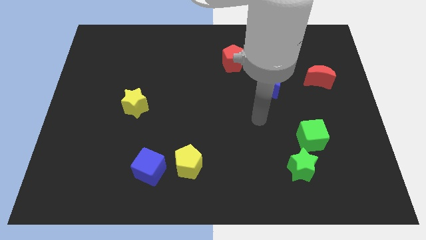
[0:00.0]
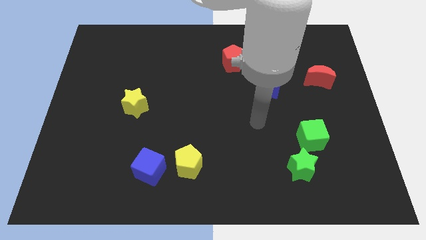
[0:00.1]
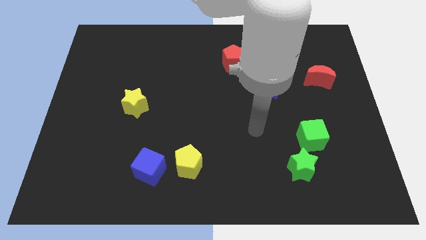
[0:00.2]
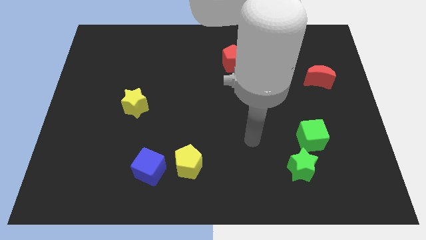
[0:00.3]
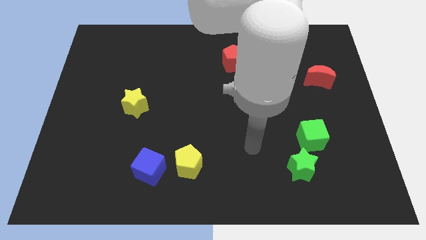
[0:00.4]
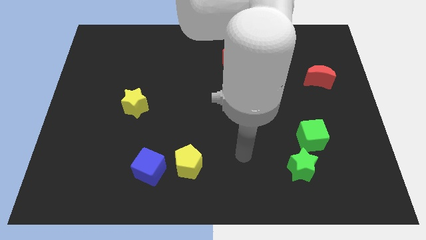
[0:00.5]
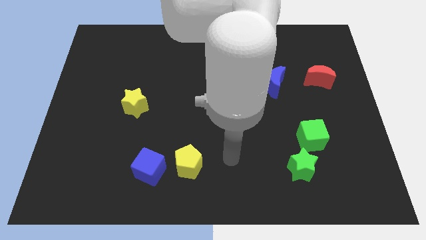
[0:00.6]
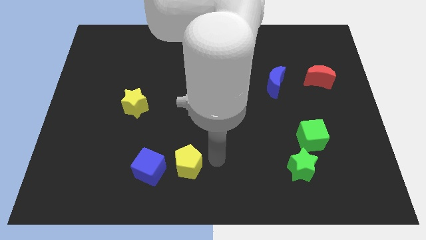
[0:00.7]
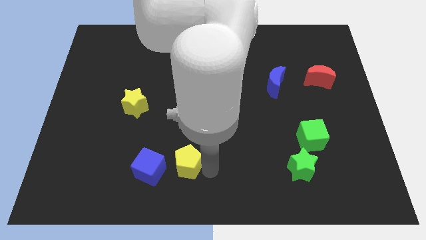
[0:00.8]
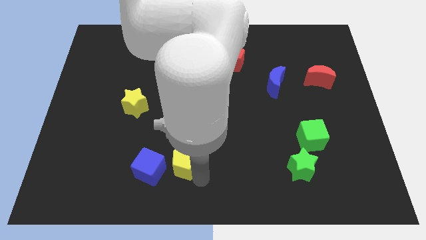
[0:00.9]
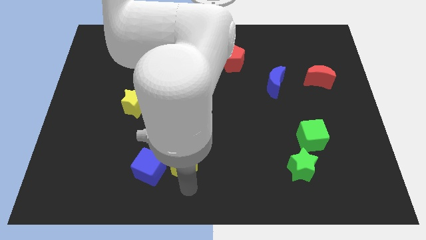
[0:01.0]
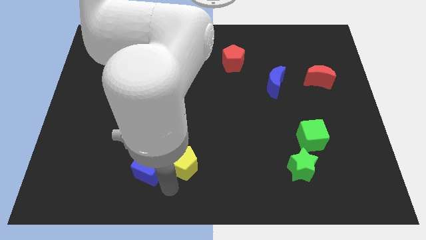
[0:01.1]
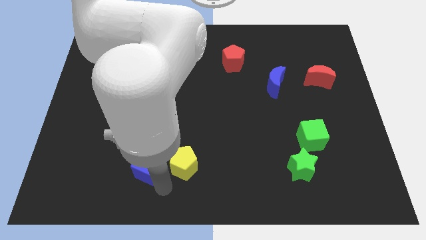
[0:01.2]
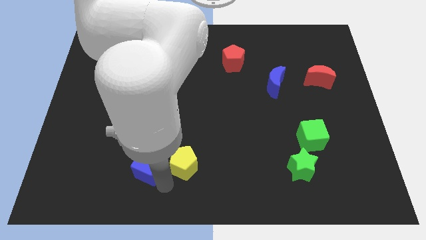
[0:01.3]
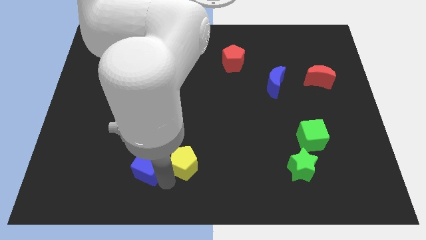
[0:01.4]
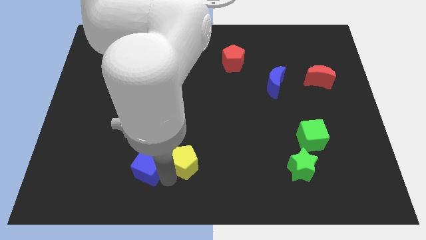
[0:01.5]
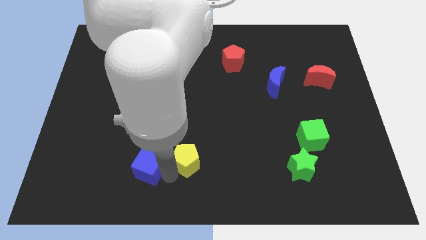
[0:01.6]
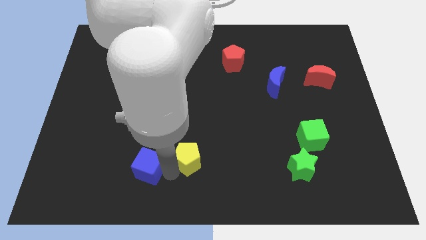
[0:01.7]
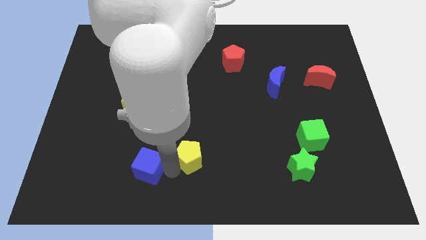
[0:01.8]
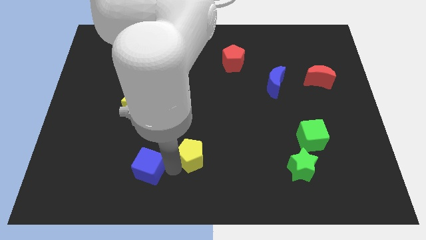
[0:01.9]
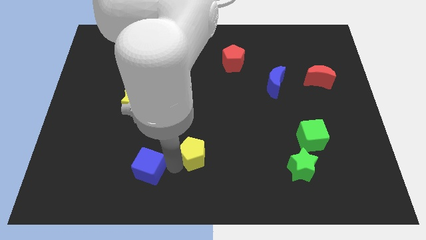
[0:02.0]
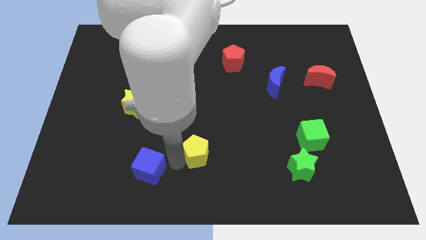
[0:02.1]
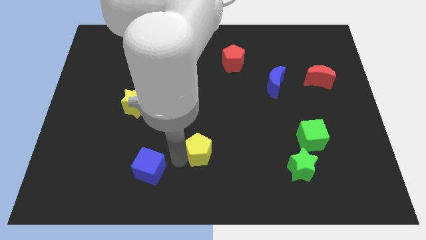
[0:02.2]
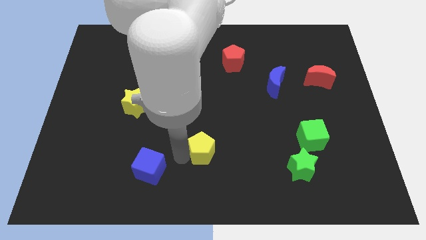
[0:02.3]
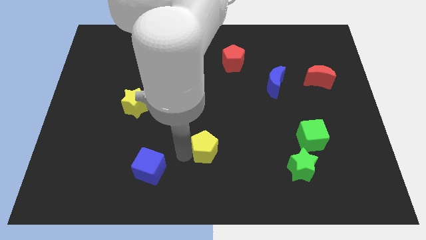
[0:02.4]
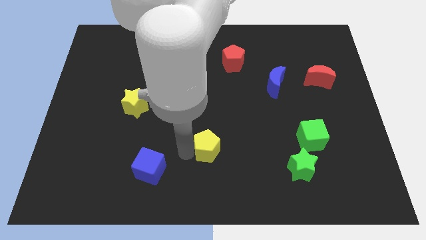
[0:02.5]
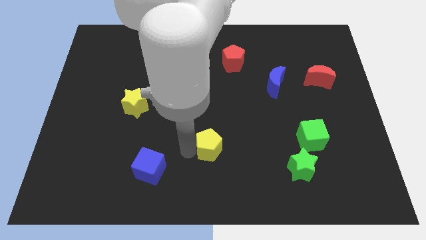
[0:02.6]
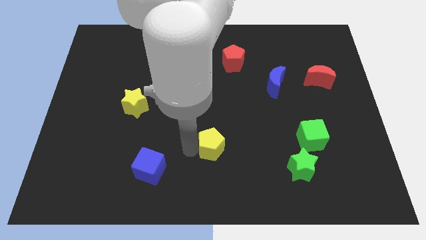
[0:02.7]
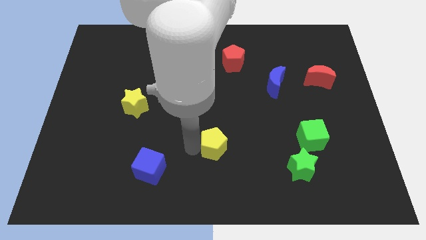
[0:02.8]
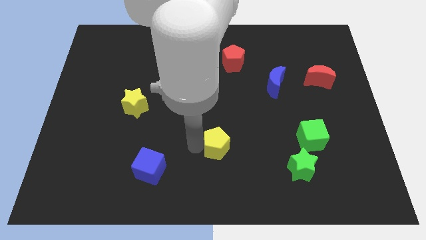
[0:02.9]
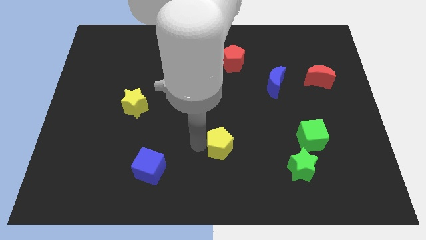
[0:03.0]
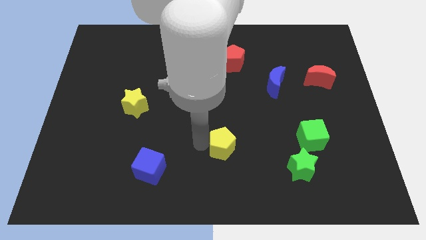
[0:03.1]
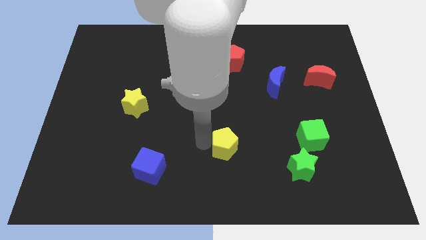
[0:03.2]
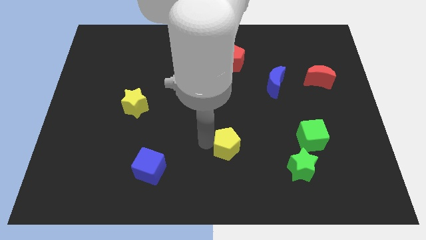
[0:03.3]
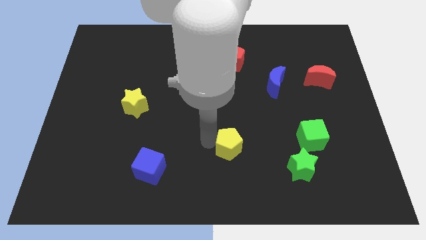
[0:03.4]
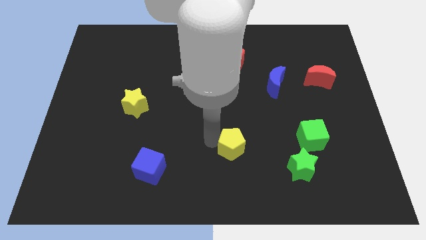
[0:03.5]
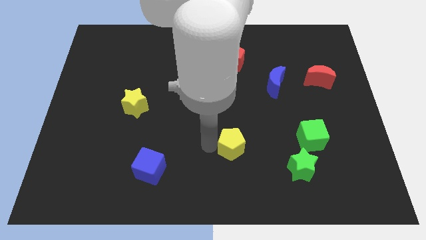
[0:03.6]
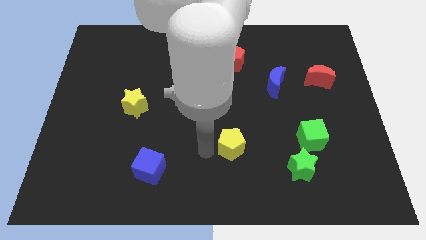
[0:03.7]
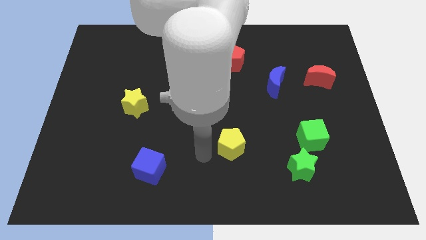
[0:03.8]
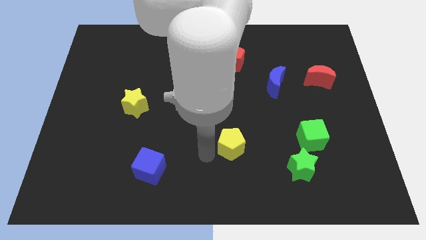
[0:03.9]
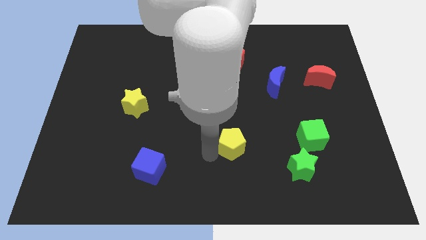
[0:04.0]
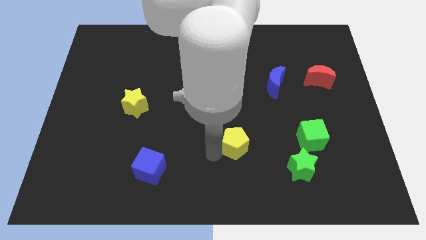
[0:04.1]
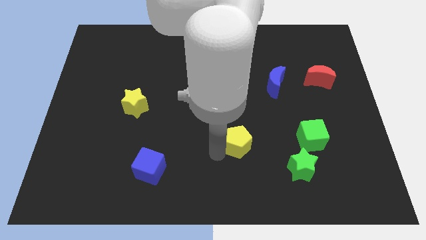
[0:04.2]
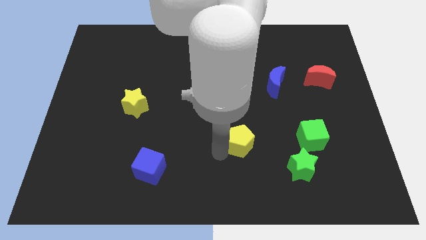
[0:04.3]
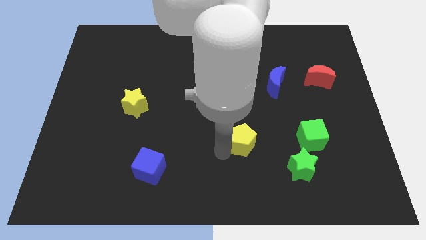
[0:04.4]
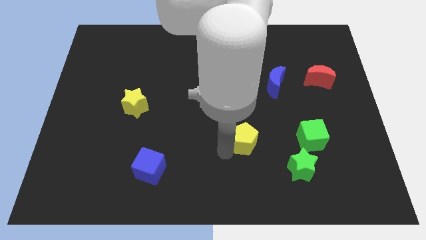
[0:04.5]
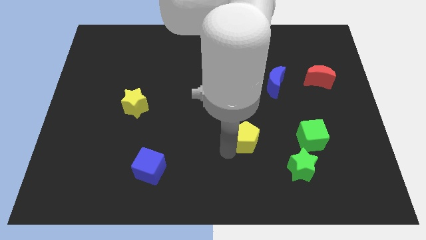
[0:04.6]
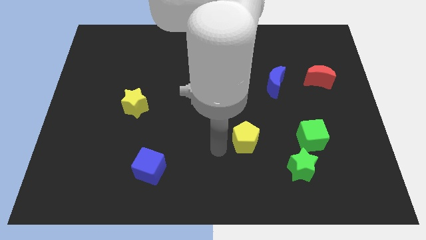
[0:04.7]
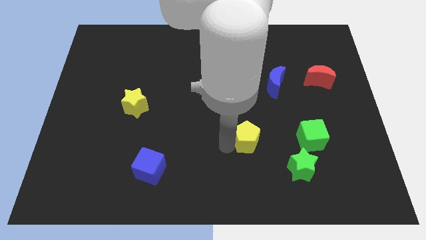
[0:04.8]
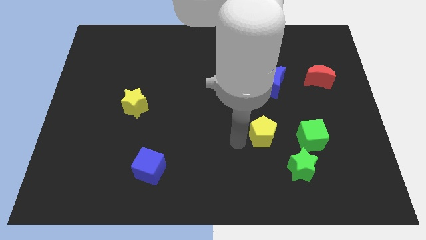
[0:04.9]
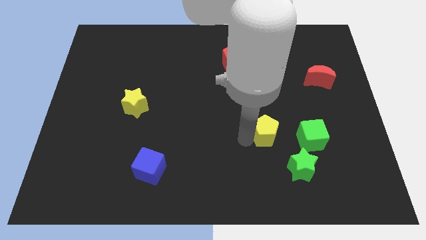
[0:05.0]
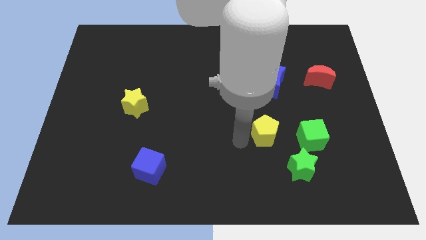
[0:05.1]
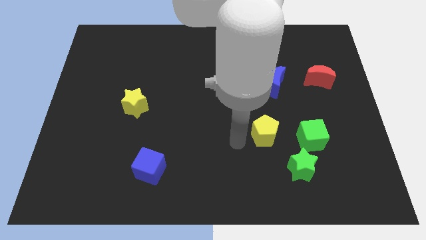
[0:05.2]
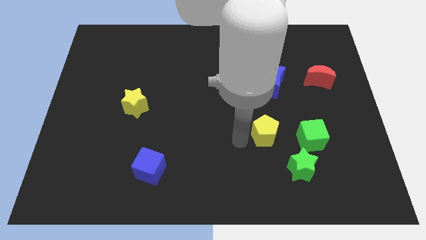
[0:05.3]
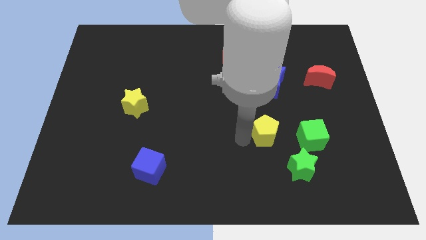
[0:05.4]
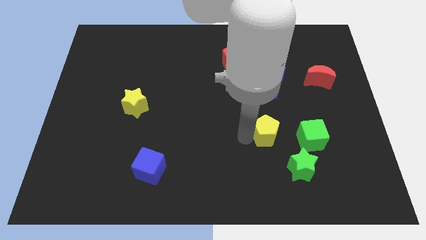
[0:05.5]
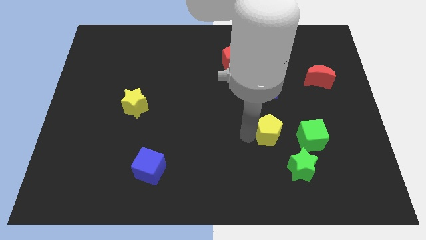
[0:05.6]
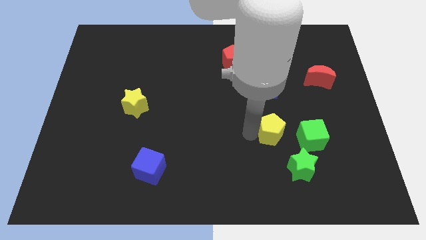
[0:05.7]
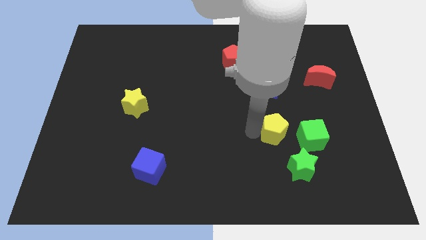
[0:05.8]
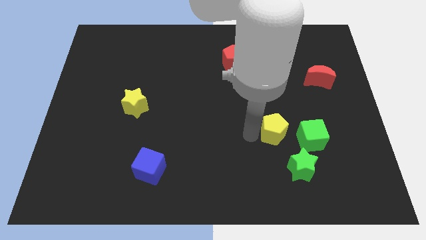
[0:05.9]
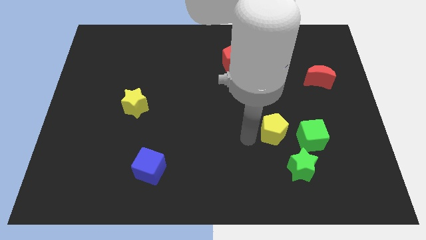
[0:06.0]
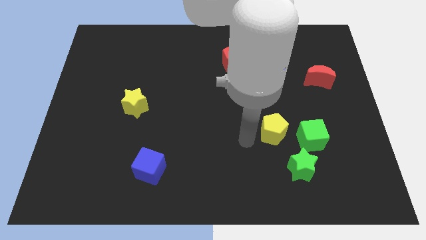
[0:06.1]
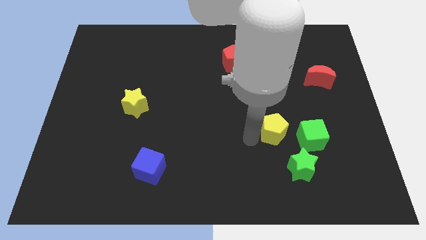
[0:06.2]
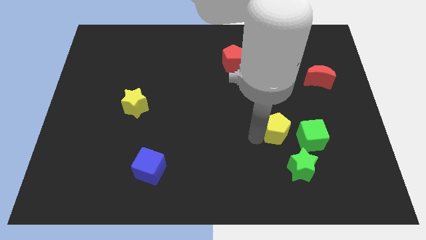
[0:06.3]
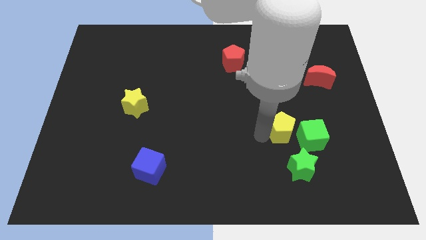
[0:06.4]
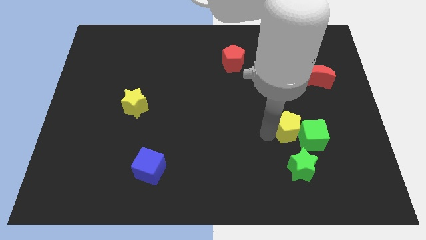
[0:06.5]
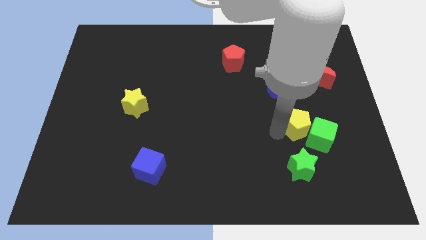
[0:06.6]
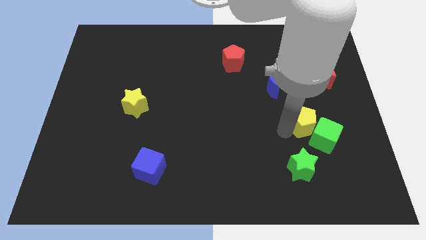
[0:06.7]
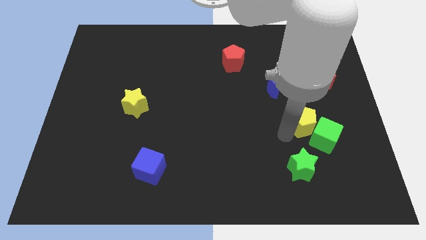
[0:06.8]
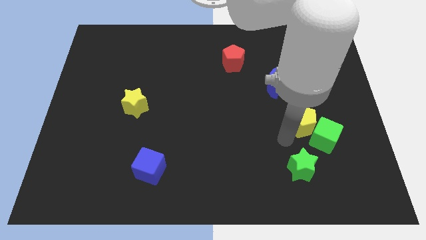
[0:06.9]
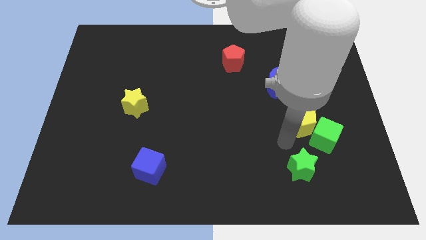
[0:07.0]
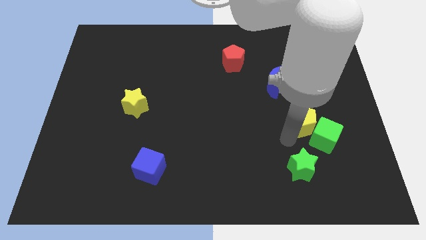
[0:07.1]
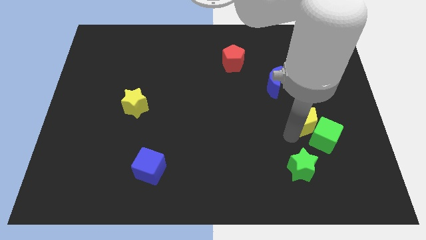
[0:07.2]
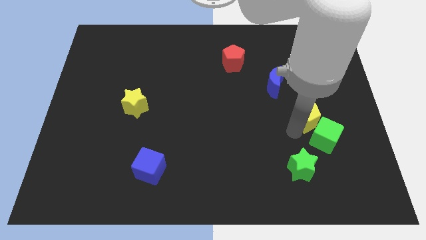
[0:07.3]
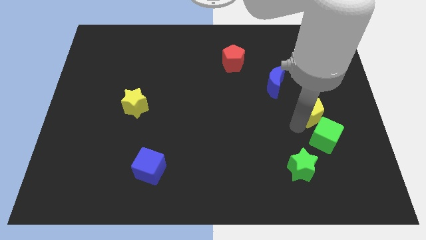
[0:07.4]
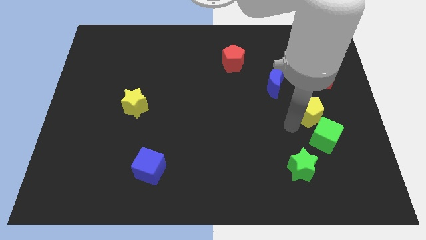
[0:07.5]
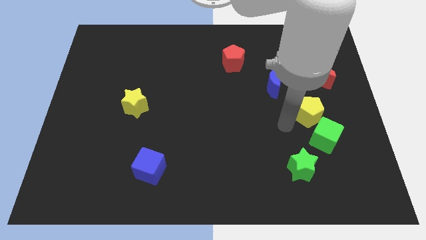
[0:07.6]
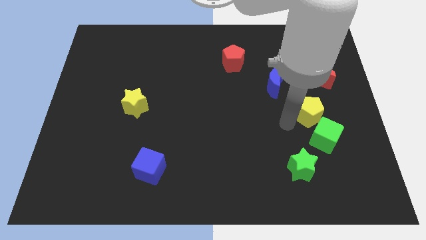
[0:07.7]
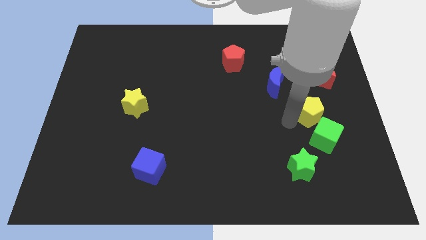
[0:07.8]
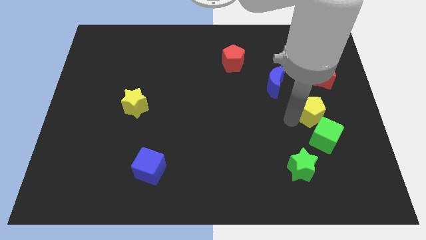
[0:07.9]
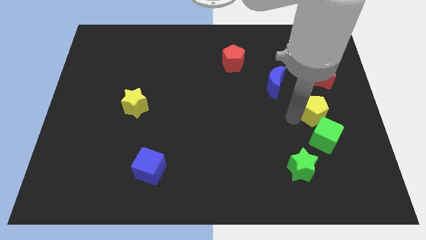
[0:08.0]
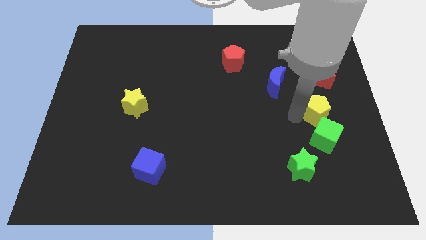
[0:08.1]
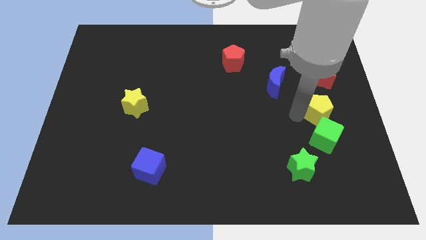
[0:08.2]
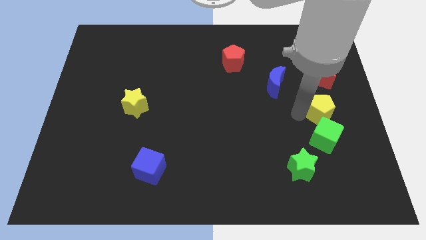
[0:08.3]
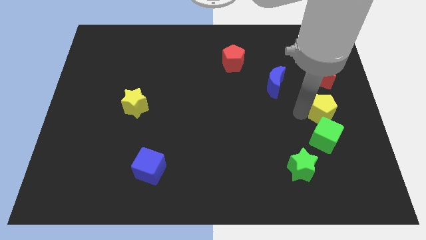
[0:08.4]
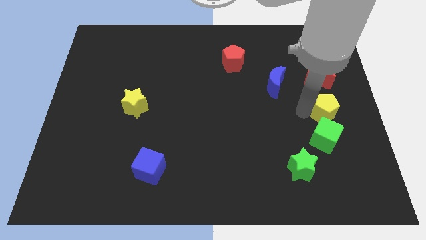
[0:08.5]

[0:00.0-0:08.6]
move the yellow pentagon to the right side
